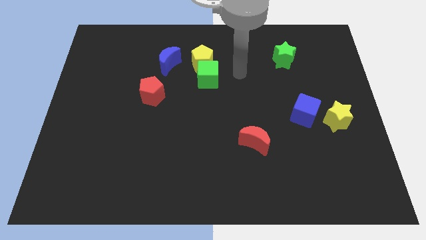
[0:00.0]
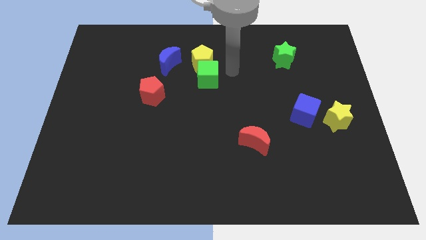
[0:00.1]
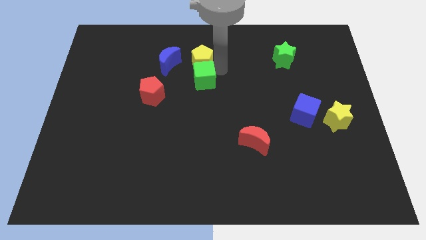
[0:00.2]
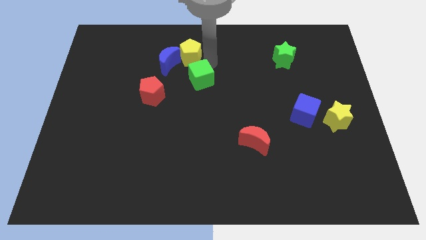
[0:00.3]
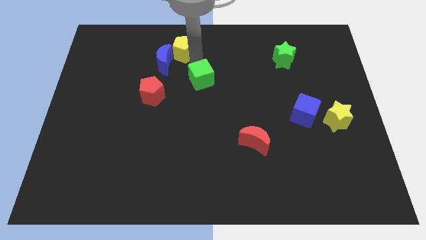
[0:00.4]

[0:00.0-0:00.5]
pull the green cube apart from the yellow pentagon

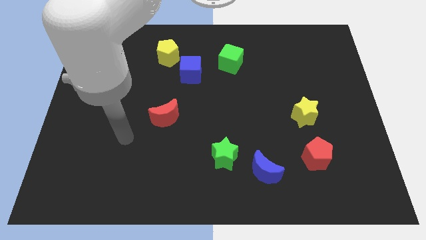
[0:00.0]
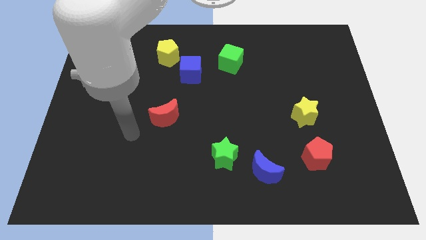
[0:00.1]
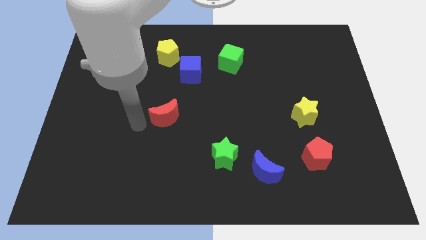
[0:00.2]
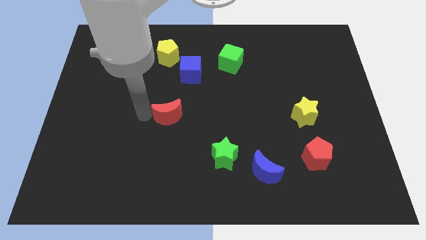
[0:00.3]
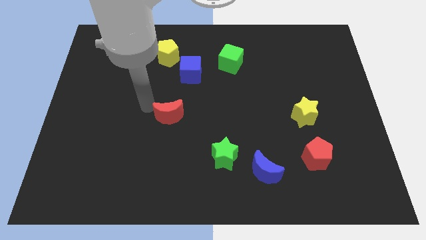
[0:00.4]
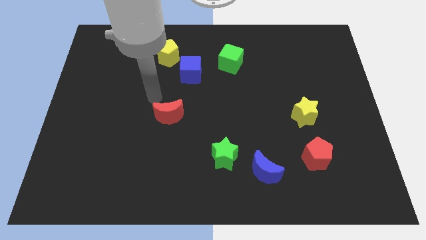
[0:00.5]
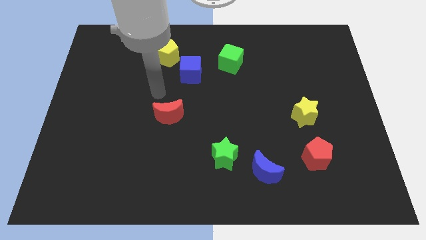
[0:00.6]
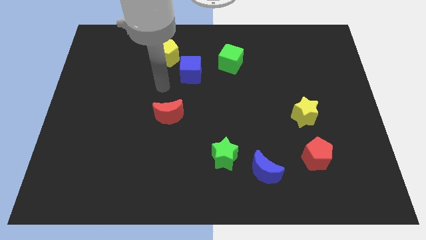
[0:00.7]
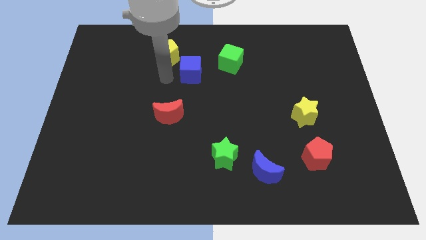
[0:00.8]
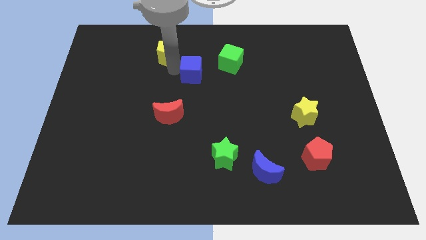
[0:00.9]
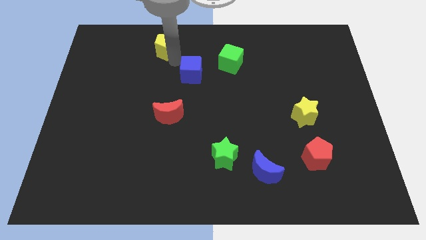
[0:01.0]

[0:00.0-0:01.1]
move the blue cube away from the yellow pentagon

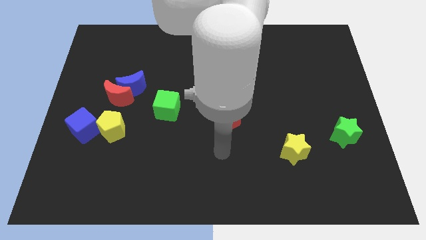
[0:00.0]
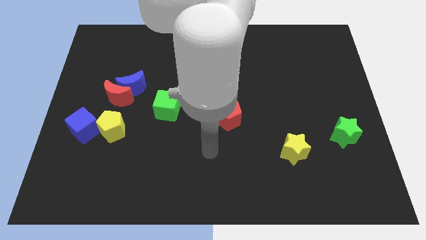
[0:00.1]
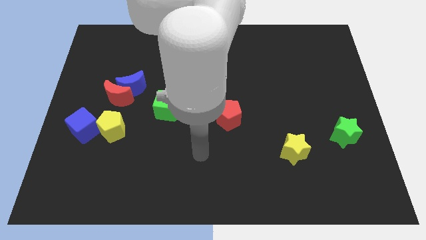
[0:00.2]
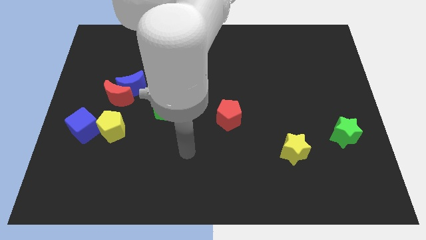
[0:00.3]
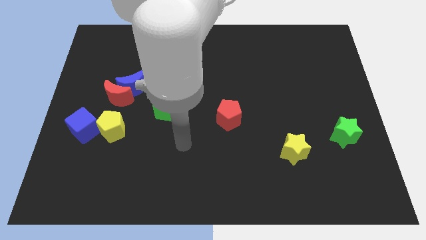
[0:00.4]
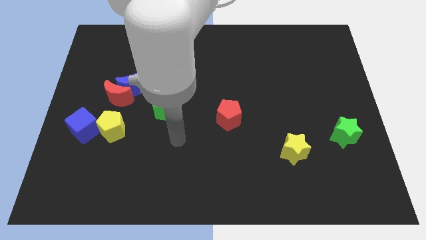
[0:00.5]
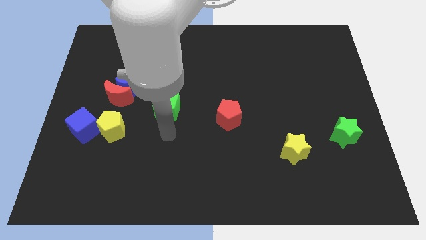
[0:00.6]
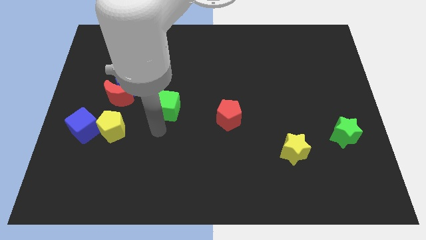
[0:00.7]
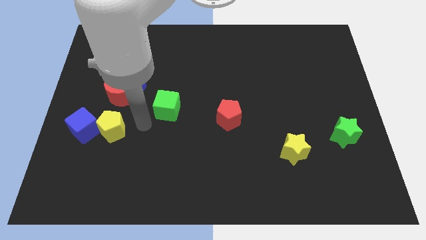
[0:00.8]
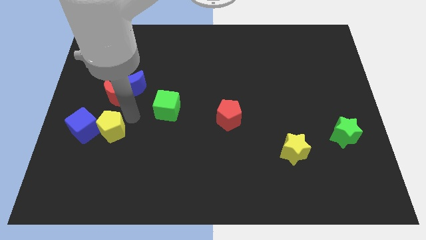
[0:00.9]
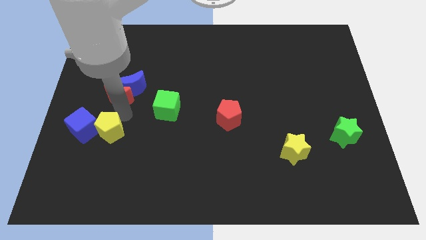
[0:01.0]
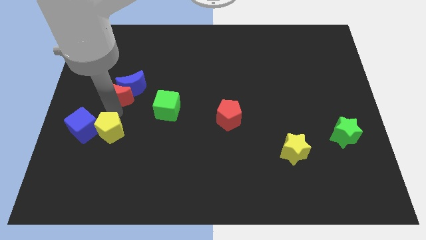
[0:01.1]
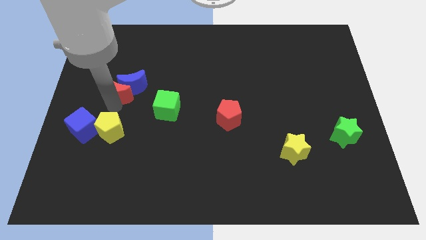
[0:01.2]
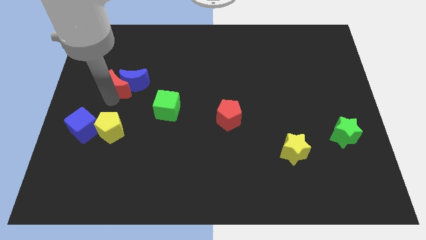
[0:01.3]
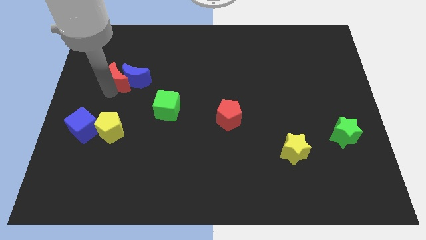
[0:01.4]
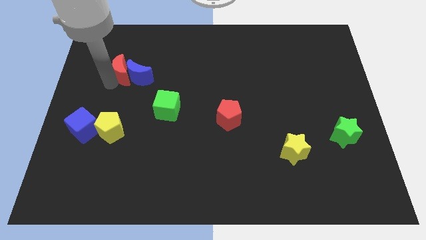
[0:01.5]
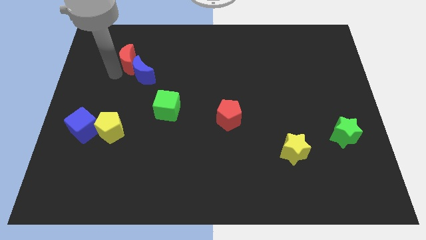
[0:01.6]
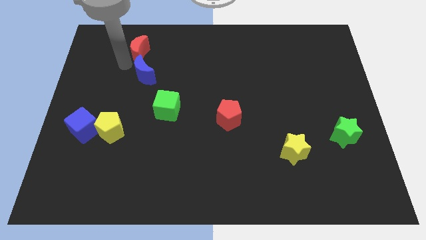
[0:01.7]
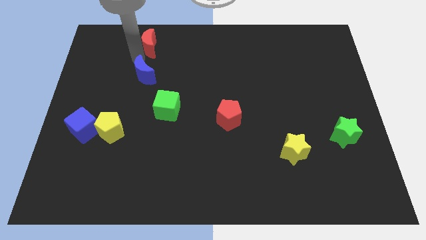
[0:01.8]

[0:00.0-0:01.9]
pull the blue moon apart from the red moon

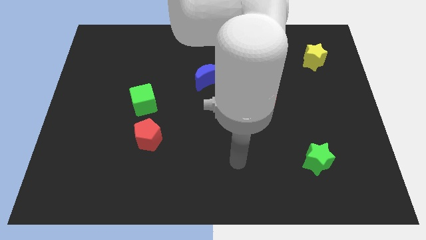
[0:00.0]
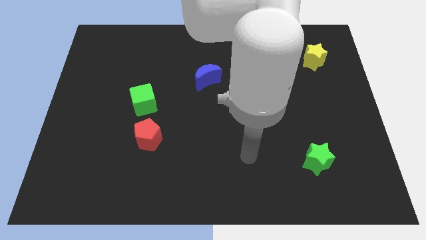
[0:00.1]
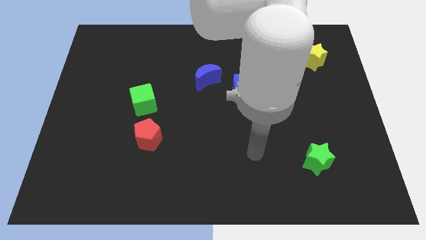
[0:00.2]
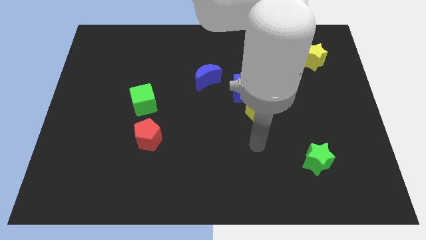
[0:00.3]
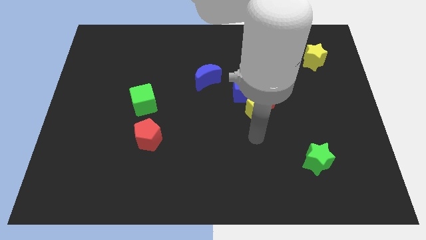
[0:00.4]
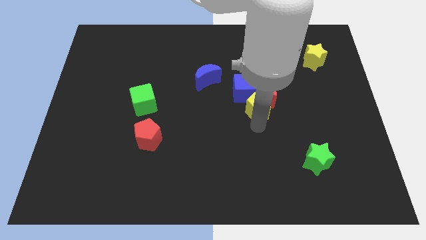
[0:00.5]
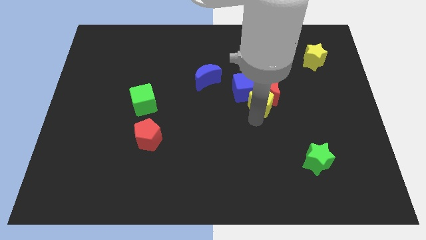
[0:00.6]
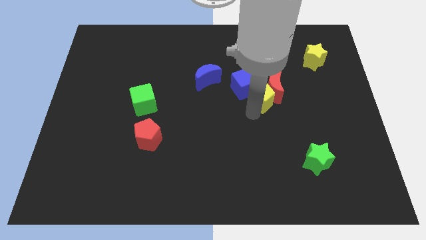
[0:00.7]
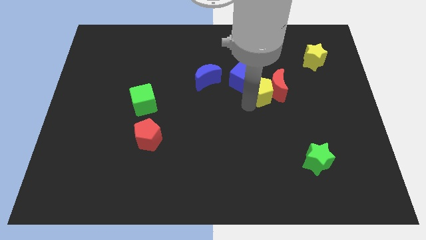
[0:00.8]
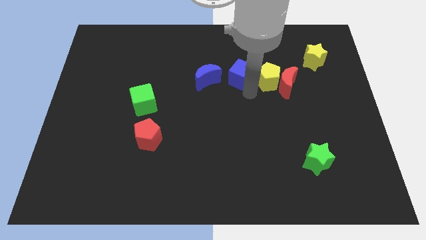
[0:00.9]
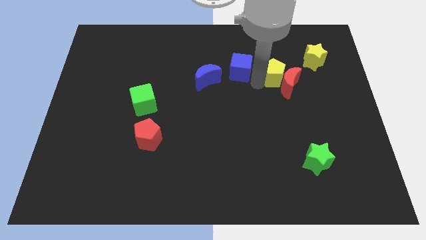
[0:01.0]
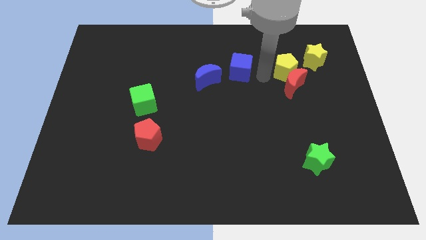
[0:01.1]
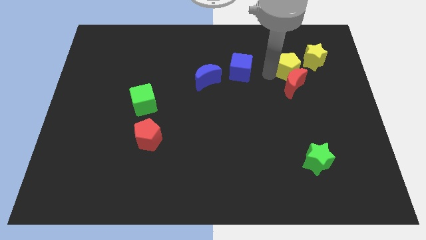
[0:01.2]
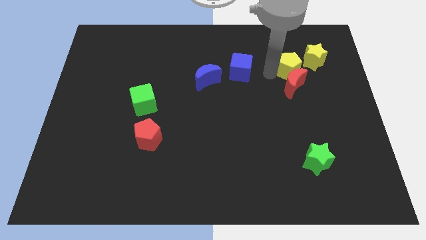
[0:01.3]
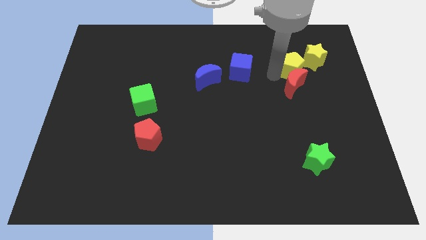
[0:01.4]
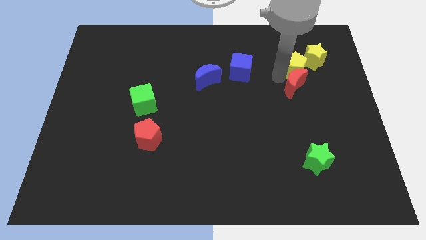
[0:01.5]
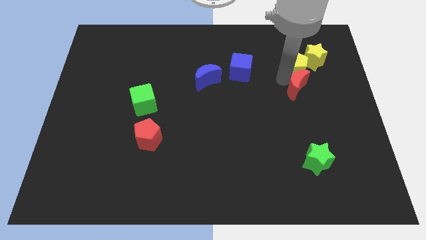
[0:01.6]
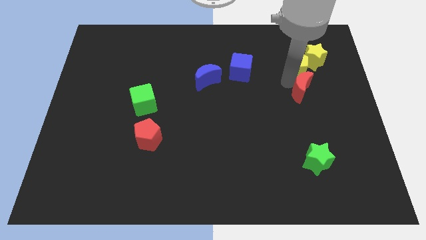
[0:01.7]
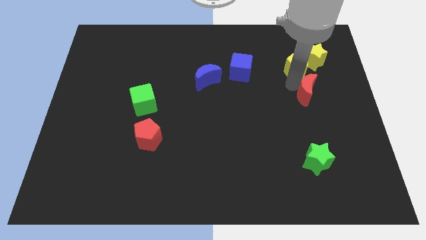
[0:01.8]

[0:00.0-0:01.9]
pull the red moon apart from the yellow pentagon and blue cube

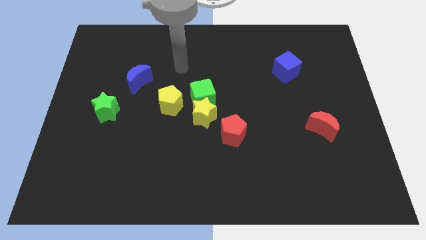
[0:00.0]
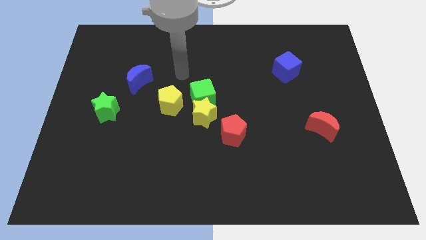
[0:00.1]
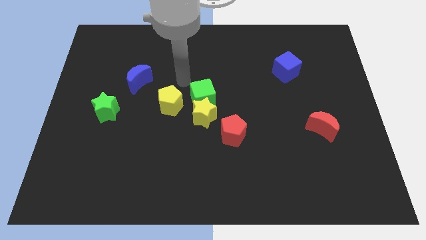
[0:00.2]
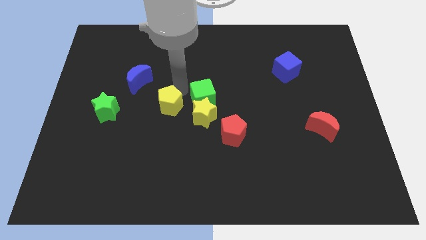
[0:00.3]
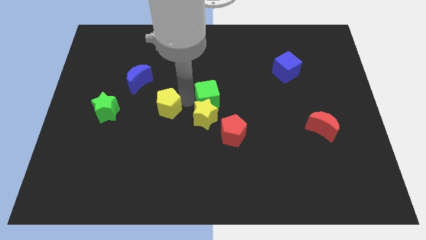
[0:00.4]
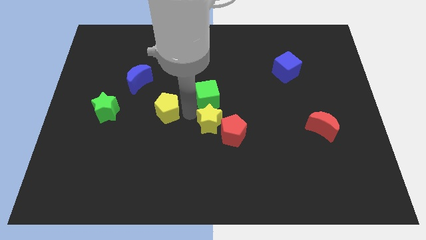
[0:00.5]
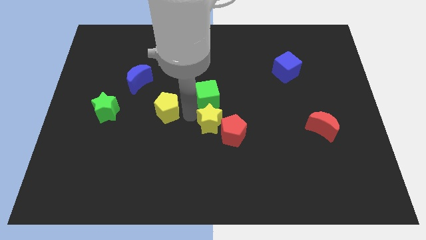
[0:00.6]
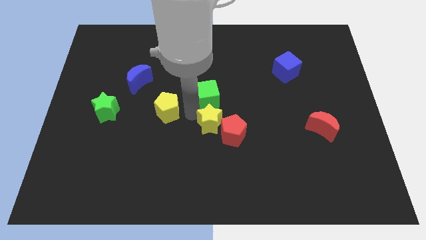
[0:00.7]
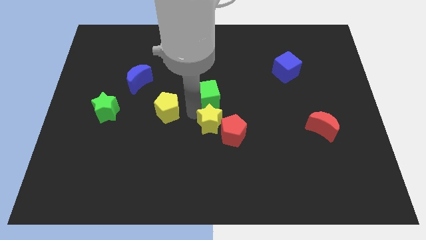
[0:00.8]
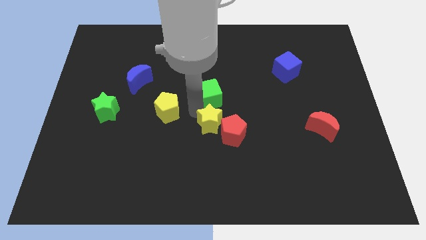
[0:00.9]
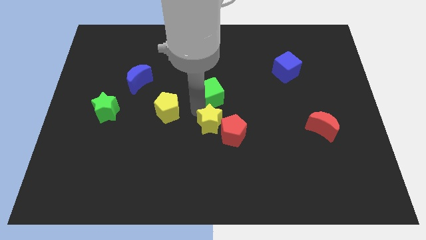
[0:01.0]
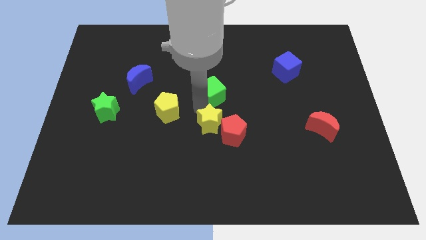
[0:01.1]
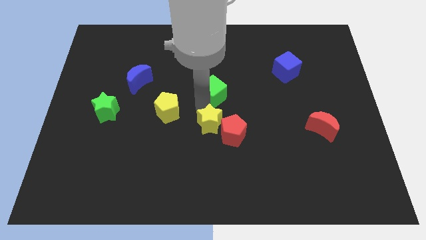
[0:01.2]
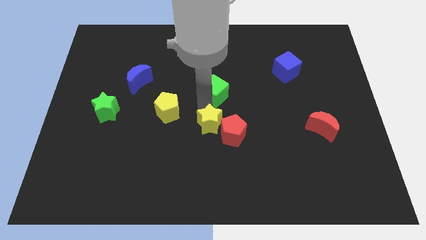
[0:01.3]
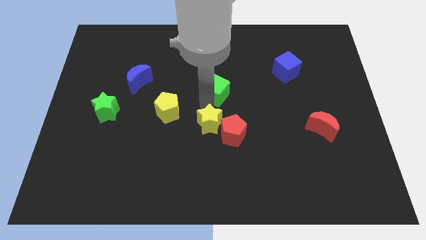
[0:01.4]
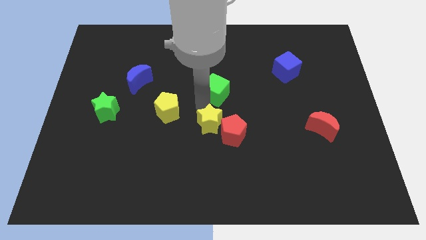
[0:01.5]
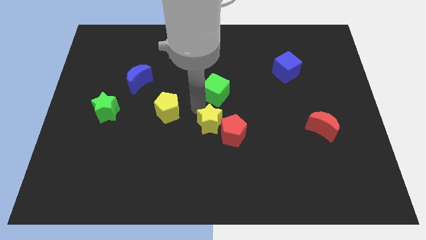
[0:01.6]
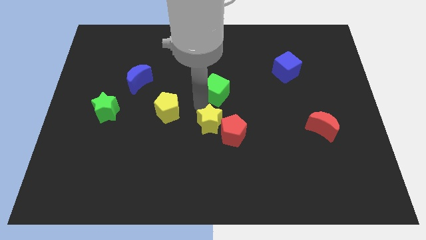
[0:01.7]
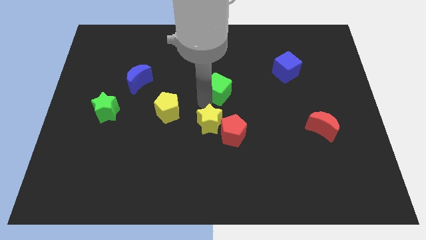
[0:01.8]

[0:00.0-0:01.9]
pull the green cube apart from the yellow star and yellow pentagon

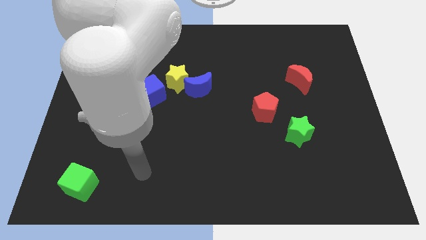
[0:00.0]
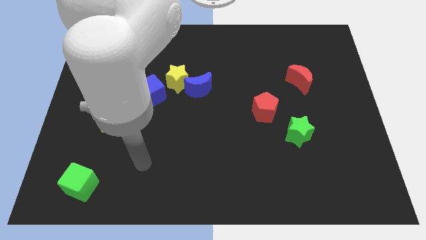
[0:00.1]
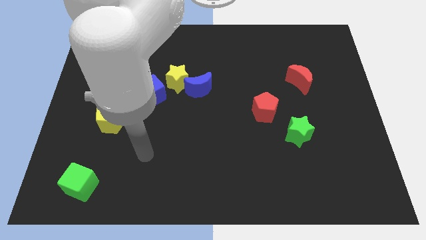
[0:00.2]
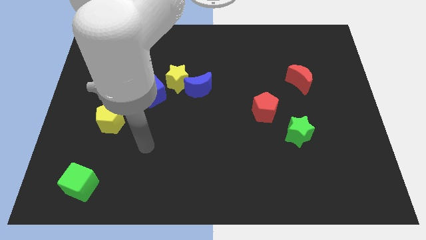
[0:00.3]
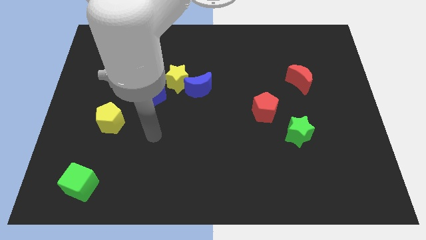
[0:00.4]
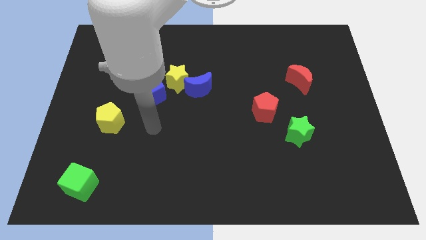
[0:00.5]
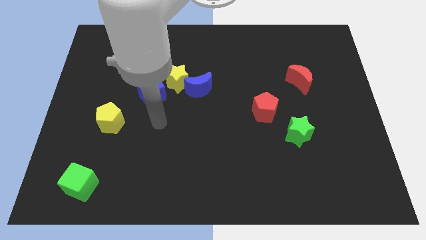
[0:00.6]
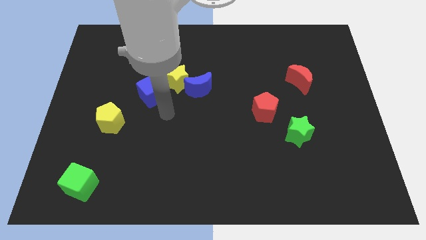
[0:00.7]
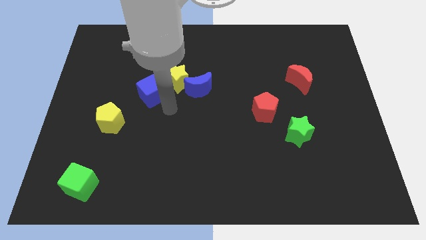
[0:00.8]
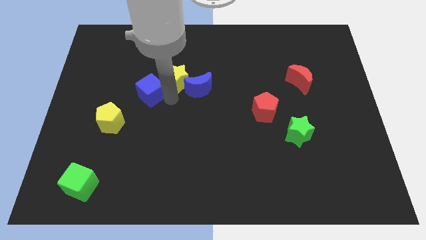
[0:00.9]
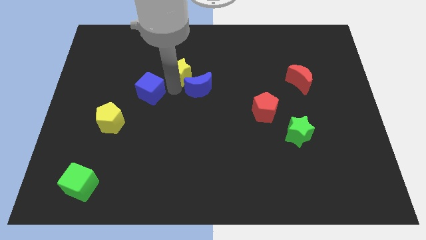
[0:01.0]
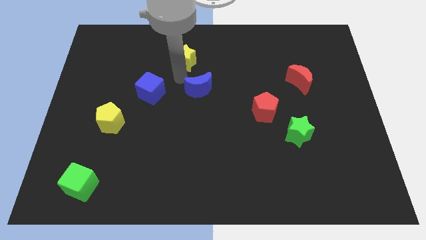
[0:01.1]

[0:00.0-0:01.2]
move the blue moon away from the yellow star

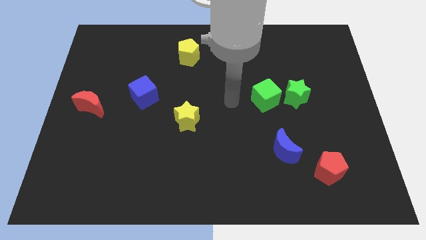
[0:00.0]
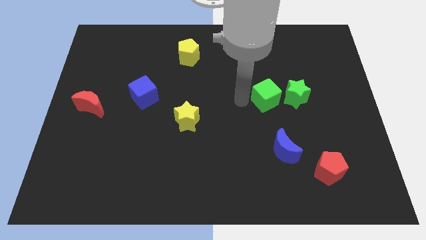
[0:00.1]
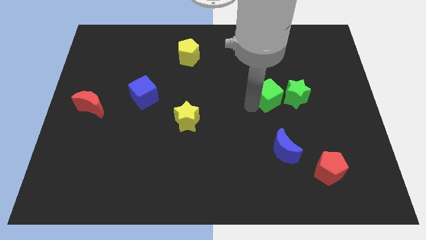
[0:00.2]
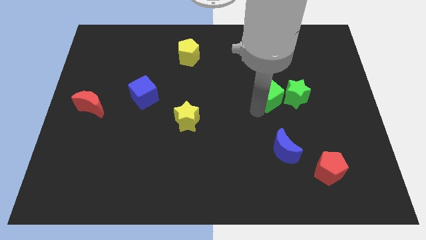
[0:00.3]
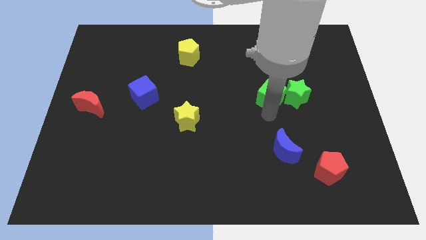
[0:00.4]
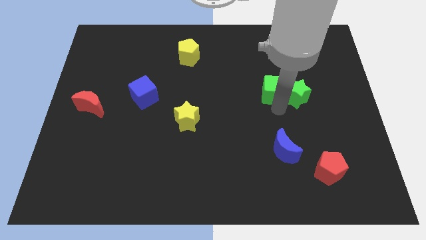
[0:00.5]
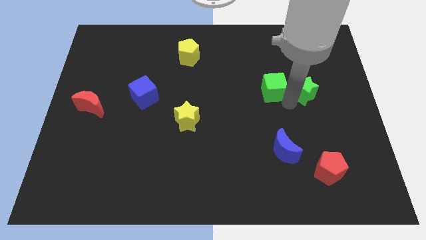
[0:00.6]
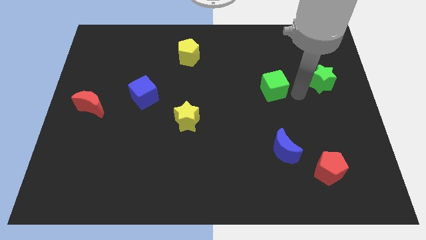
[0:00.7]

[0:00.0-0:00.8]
pull the green cube apart from the green star
